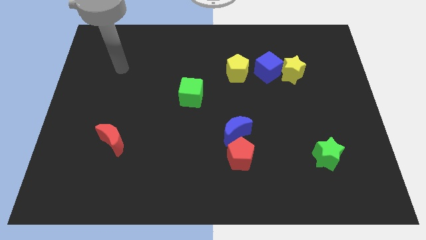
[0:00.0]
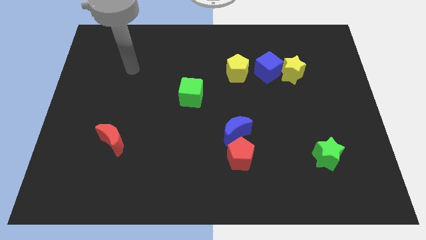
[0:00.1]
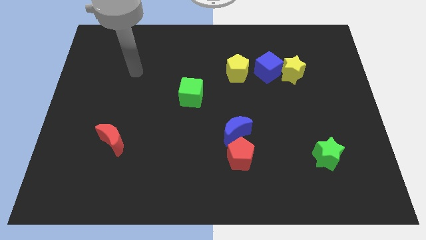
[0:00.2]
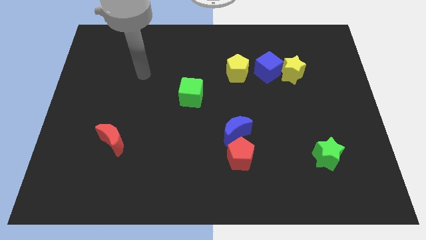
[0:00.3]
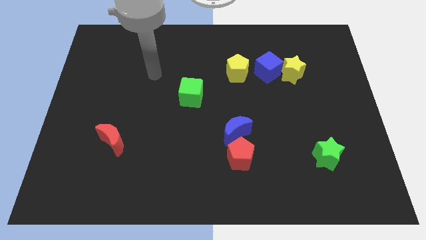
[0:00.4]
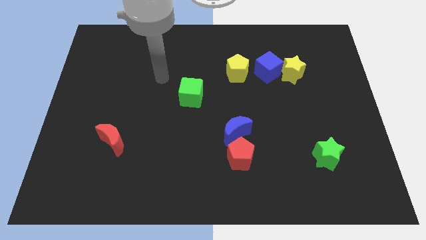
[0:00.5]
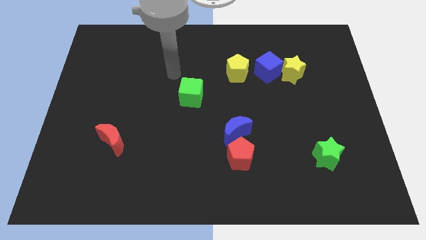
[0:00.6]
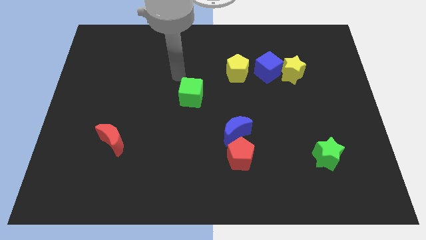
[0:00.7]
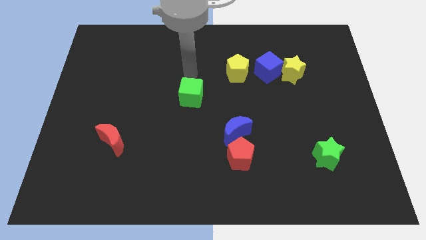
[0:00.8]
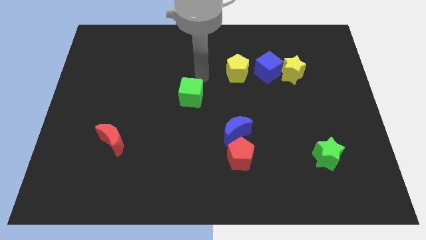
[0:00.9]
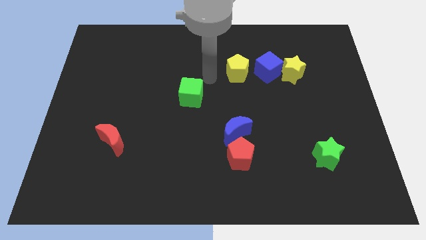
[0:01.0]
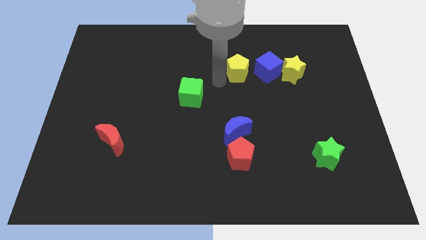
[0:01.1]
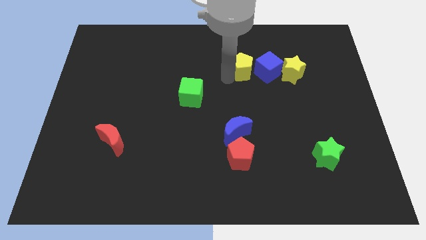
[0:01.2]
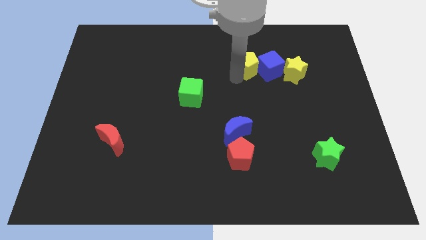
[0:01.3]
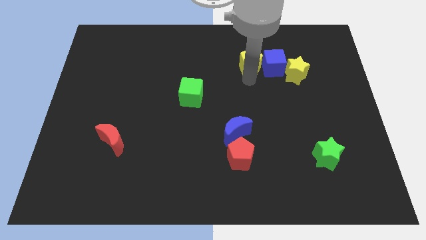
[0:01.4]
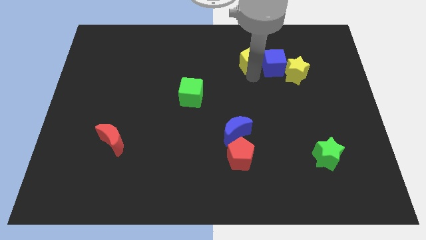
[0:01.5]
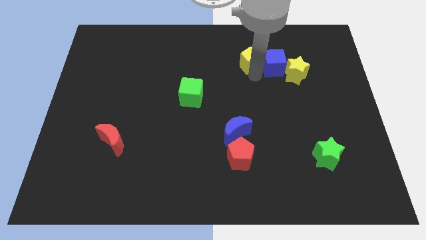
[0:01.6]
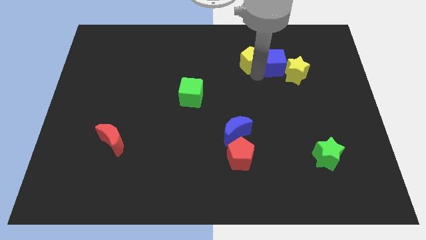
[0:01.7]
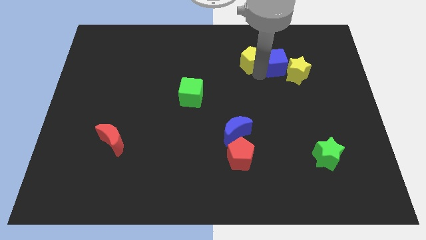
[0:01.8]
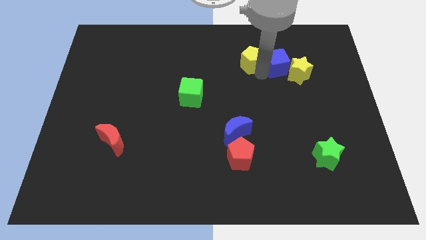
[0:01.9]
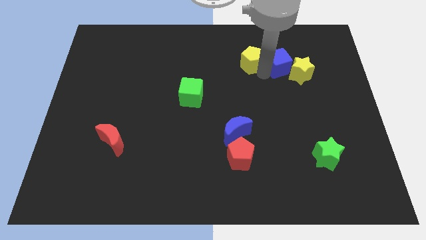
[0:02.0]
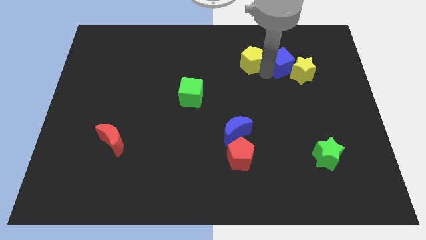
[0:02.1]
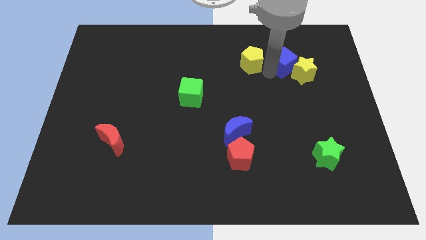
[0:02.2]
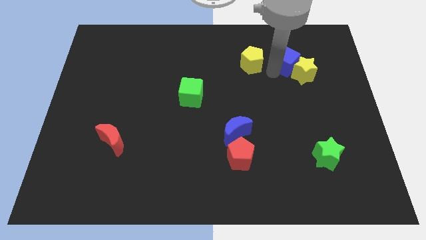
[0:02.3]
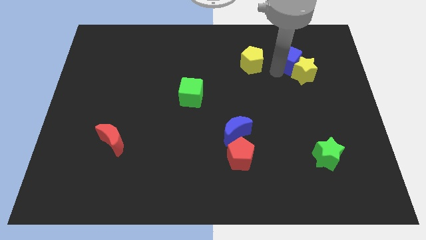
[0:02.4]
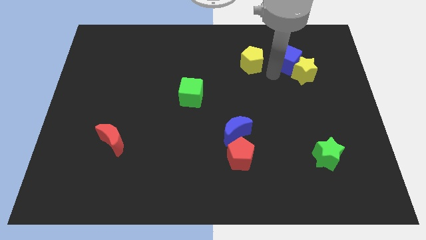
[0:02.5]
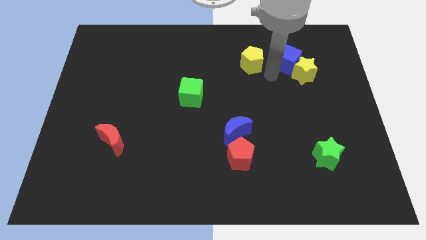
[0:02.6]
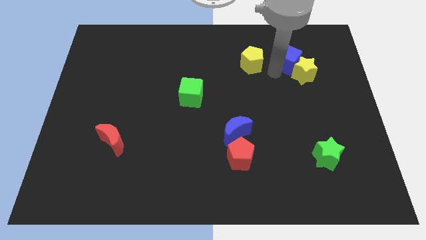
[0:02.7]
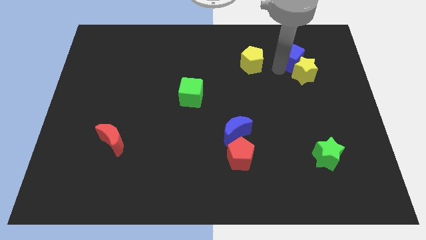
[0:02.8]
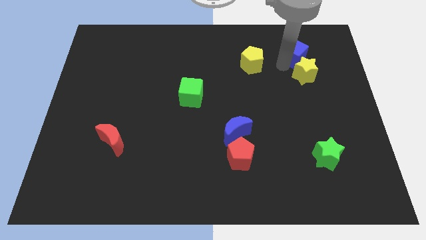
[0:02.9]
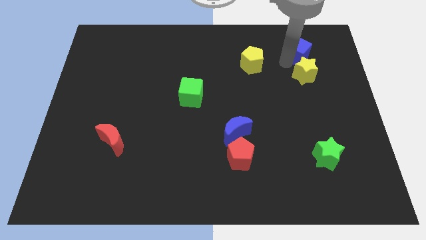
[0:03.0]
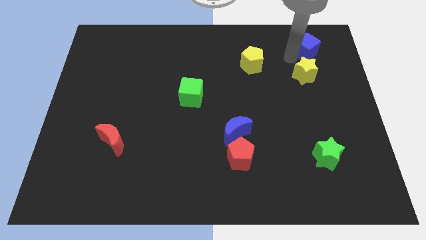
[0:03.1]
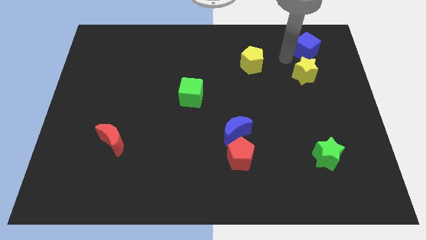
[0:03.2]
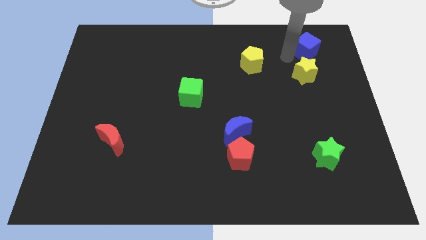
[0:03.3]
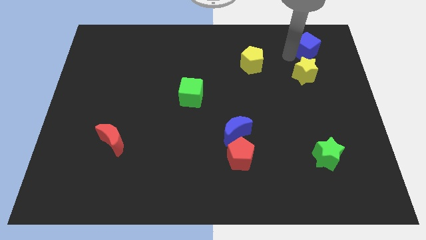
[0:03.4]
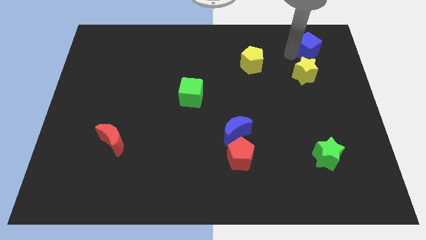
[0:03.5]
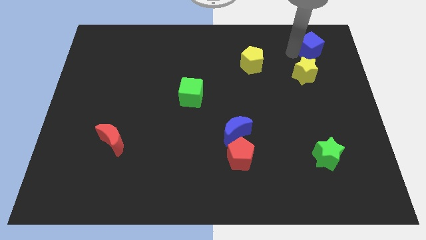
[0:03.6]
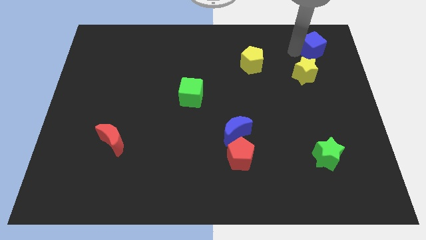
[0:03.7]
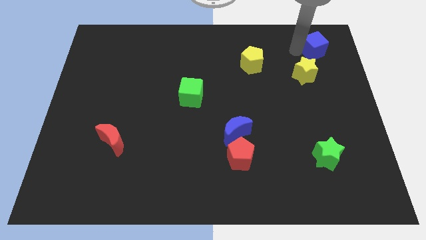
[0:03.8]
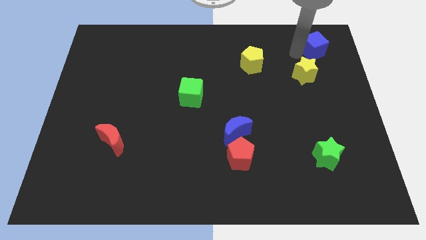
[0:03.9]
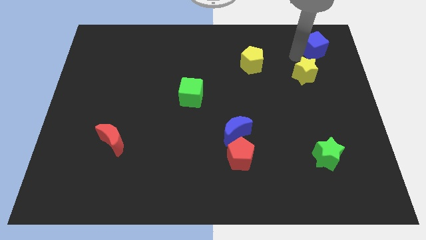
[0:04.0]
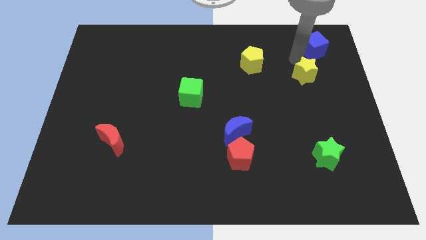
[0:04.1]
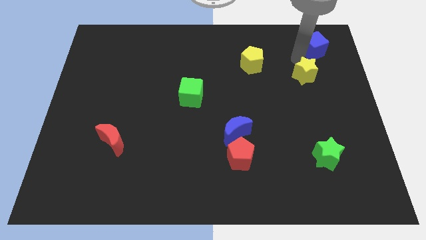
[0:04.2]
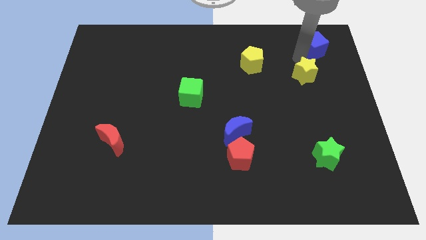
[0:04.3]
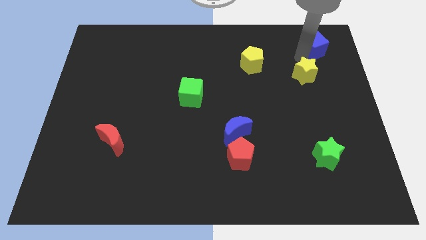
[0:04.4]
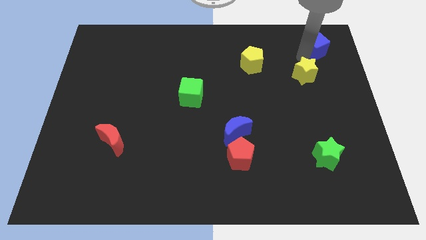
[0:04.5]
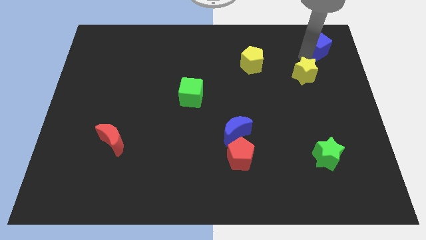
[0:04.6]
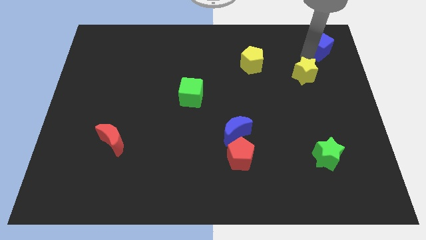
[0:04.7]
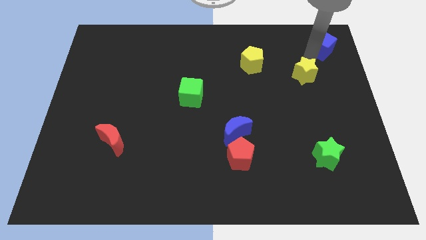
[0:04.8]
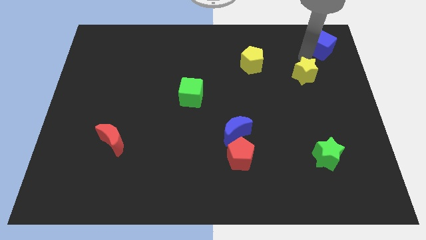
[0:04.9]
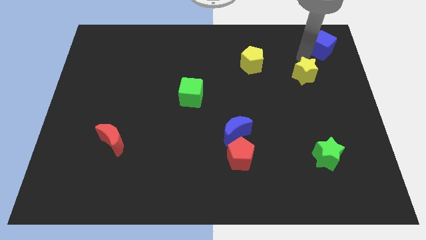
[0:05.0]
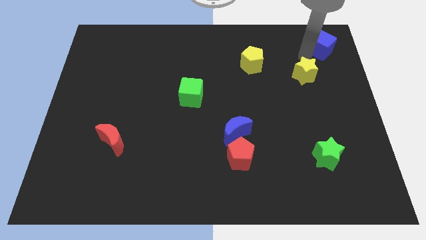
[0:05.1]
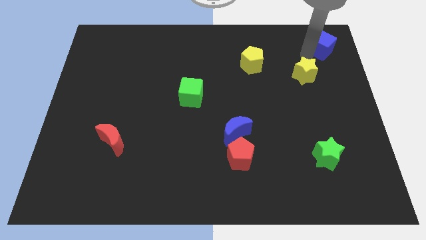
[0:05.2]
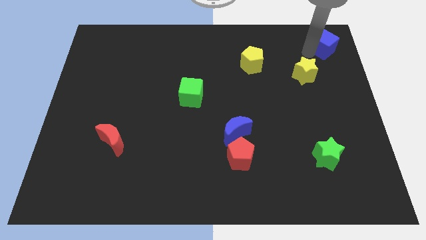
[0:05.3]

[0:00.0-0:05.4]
move the blue cube to the top right of the board
